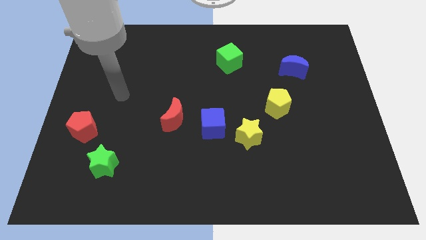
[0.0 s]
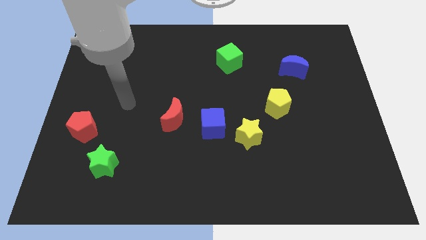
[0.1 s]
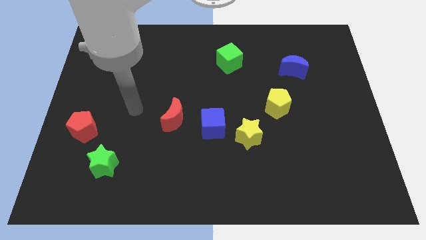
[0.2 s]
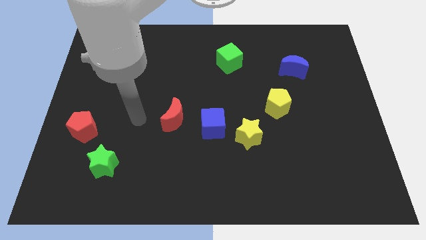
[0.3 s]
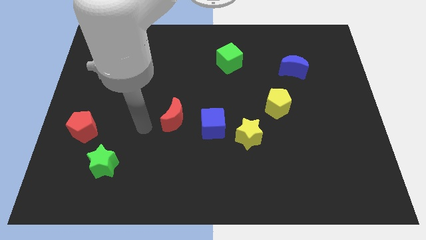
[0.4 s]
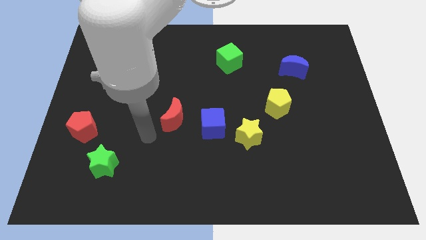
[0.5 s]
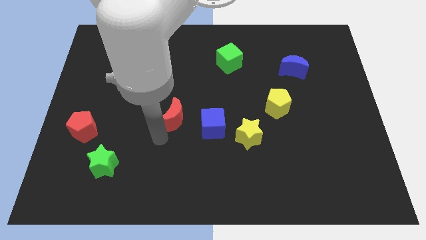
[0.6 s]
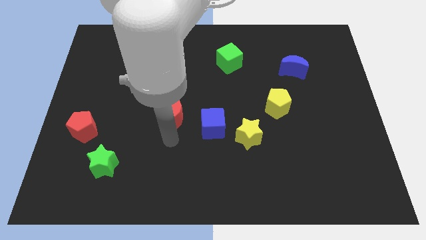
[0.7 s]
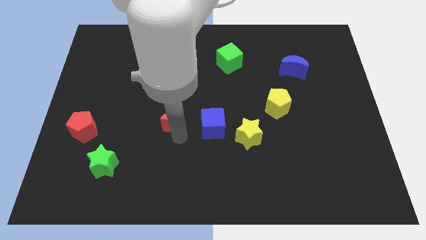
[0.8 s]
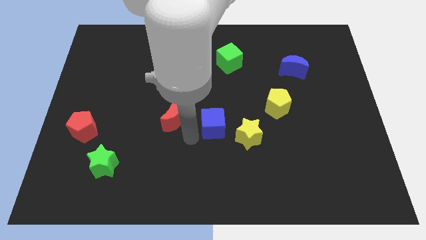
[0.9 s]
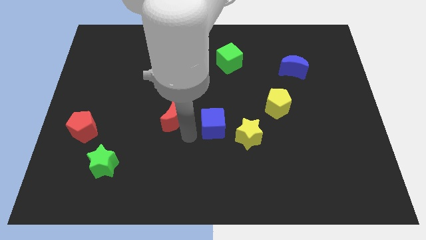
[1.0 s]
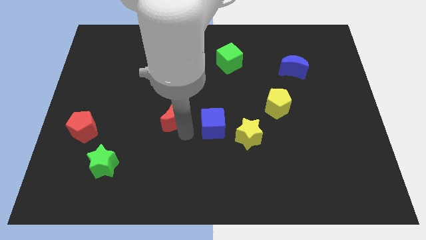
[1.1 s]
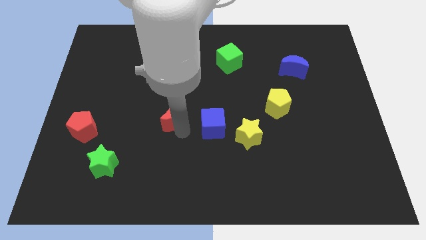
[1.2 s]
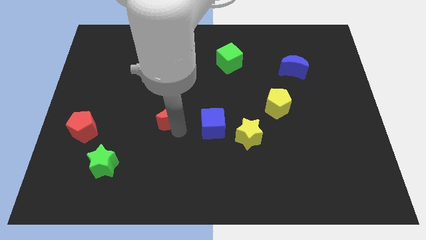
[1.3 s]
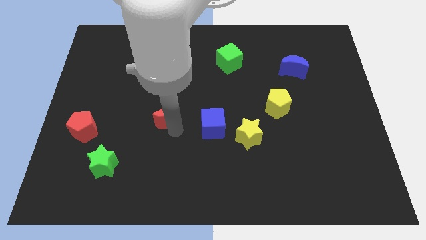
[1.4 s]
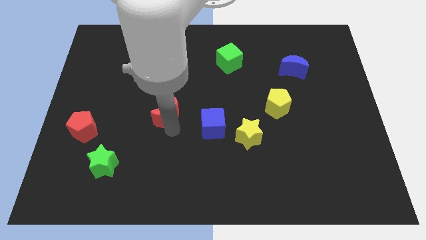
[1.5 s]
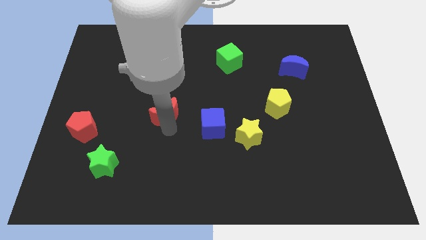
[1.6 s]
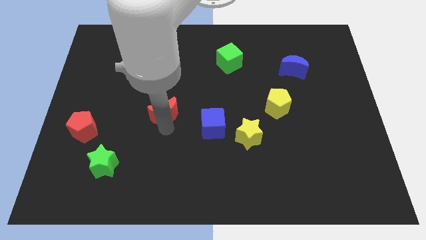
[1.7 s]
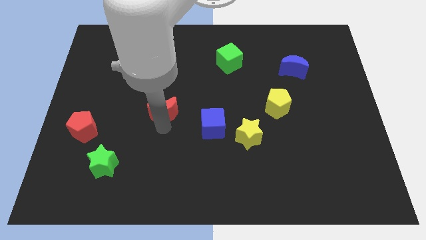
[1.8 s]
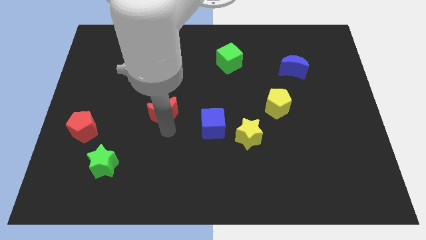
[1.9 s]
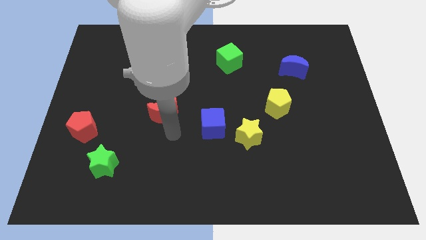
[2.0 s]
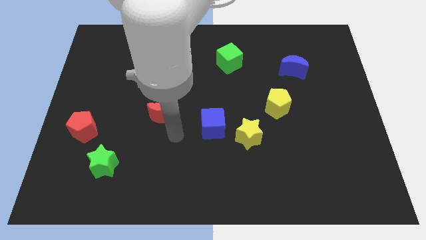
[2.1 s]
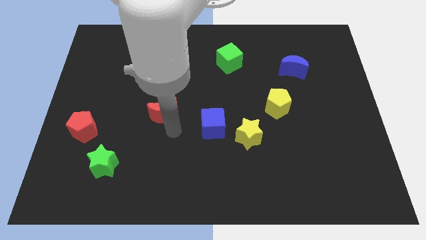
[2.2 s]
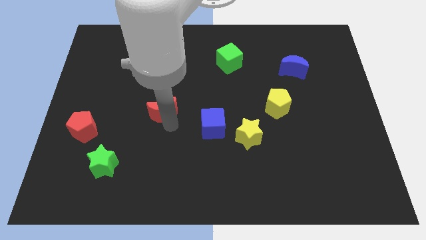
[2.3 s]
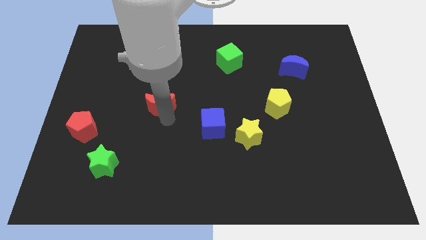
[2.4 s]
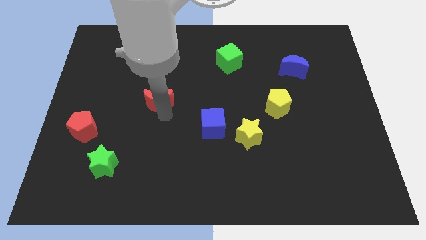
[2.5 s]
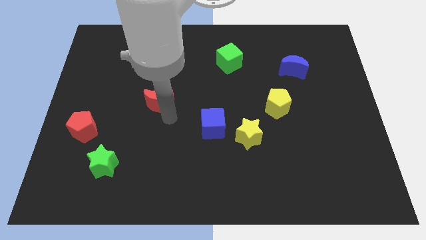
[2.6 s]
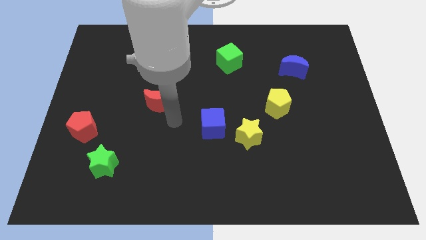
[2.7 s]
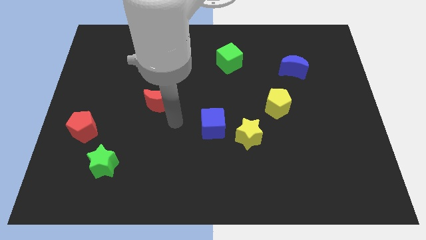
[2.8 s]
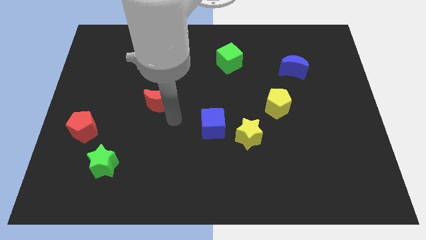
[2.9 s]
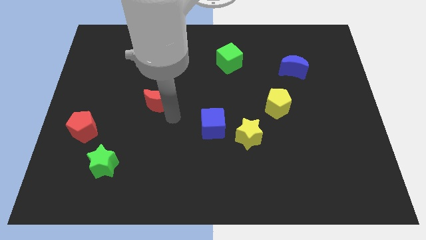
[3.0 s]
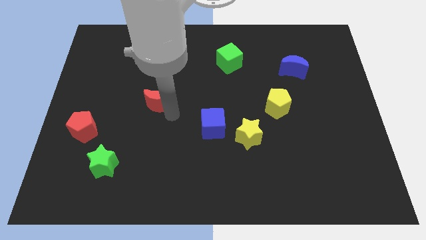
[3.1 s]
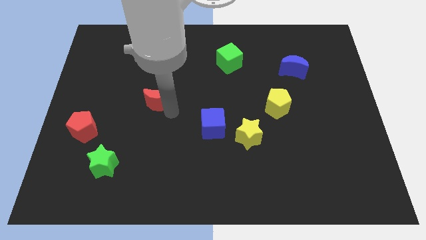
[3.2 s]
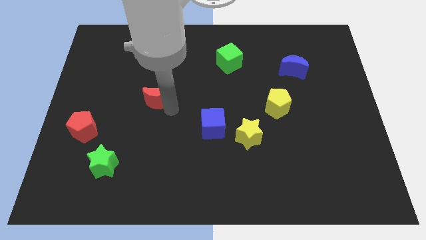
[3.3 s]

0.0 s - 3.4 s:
slightly push the red moon up and to the left diagonally

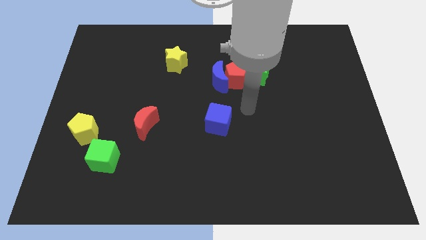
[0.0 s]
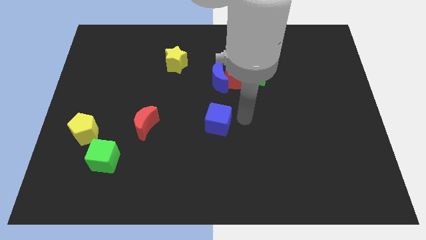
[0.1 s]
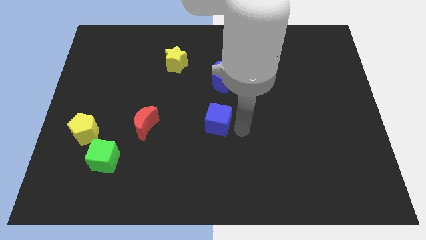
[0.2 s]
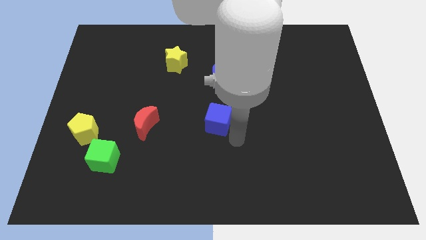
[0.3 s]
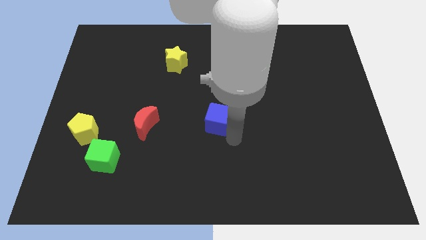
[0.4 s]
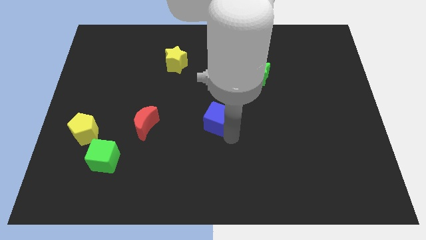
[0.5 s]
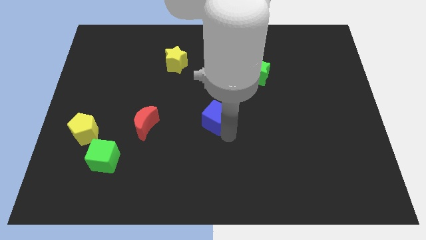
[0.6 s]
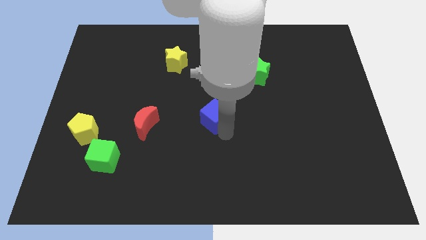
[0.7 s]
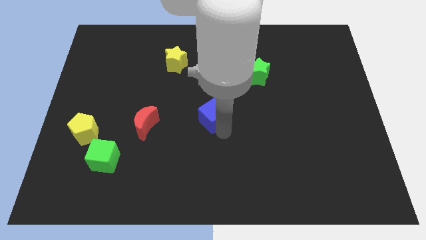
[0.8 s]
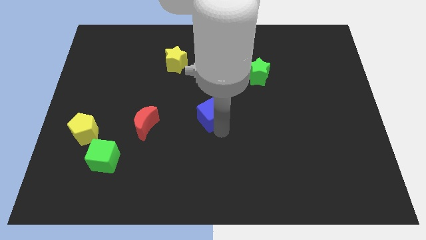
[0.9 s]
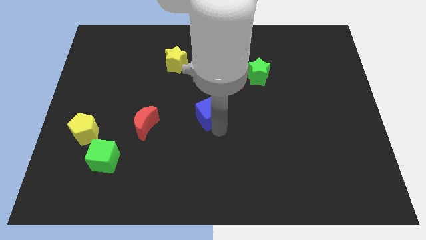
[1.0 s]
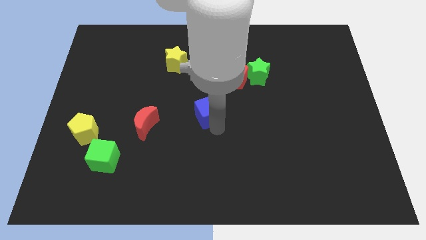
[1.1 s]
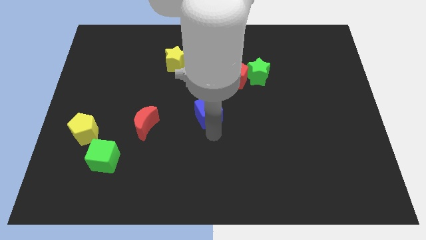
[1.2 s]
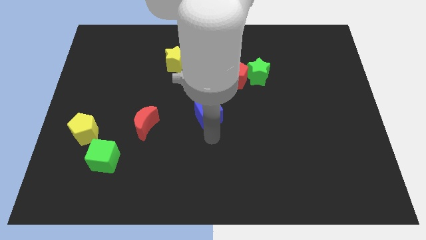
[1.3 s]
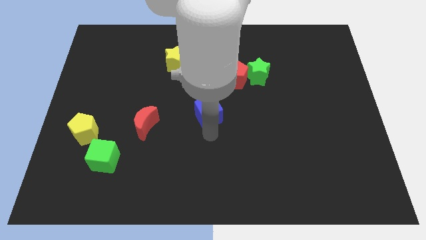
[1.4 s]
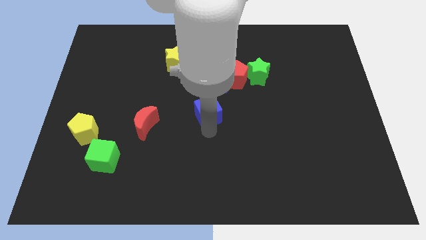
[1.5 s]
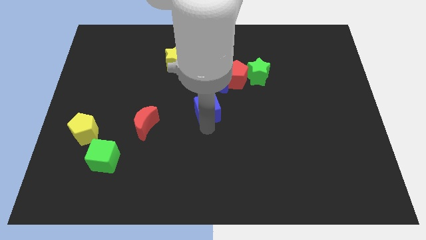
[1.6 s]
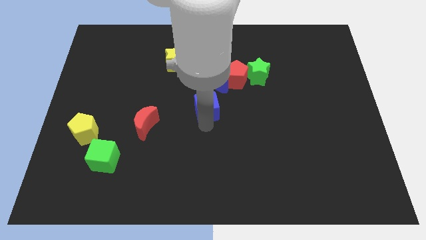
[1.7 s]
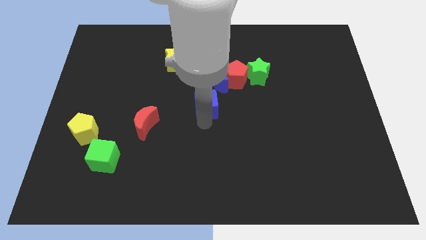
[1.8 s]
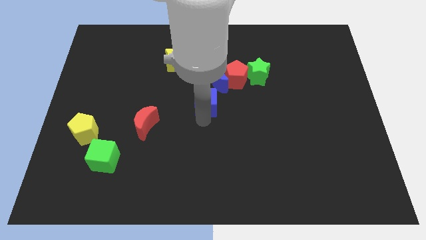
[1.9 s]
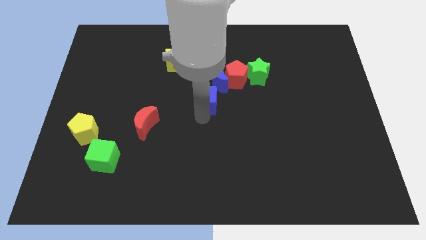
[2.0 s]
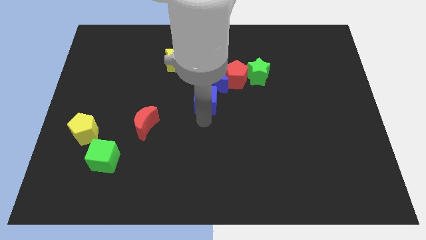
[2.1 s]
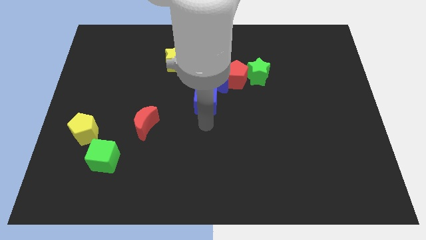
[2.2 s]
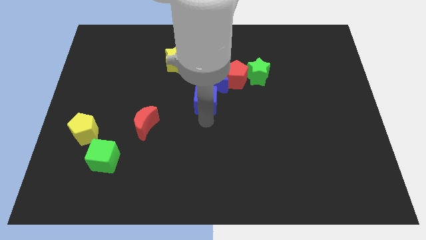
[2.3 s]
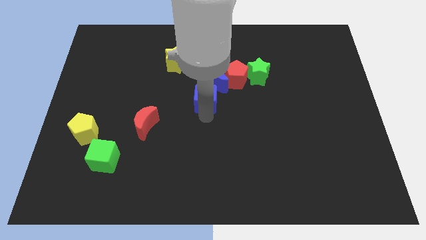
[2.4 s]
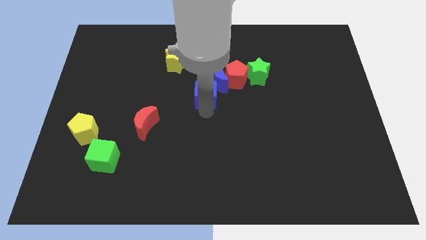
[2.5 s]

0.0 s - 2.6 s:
slide the blue cube somewhat up

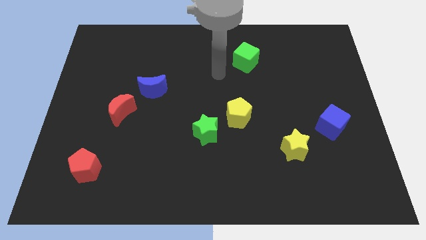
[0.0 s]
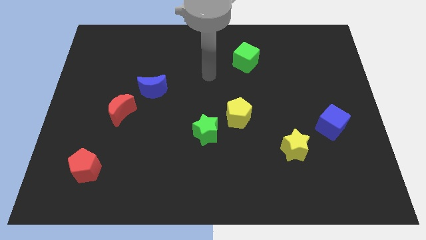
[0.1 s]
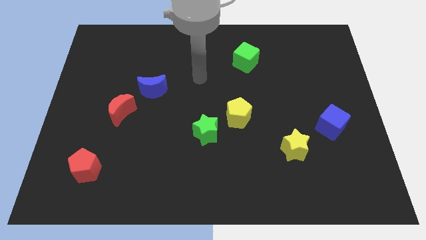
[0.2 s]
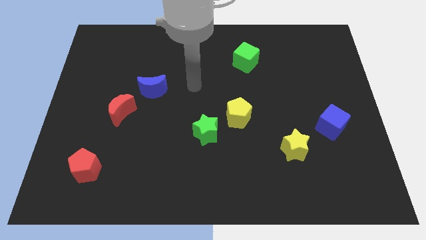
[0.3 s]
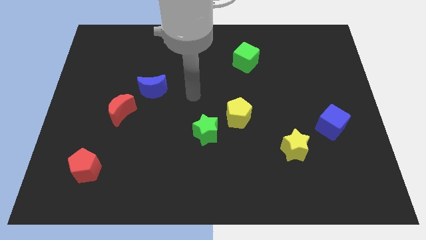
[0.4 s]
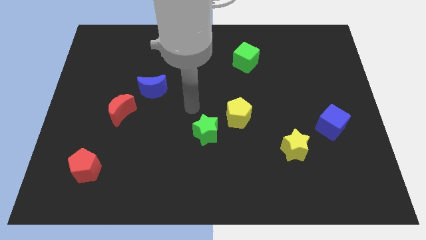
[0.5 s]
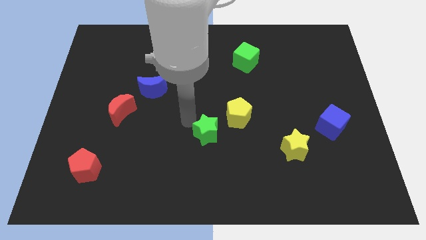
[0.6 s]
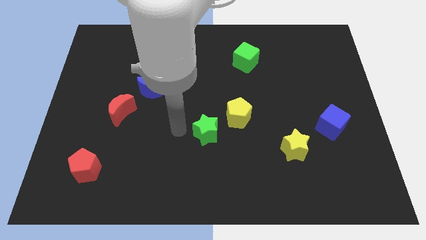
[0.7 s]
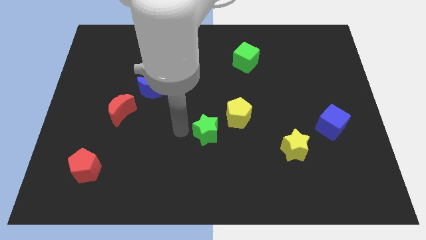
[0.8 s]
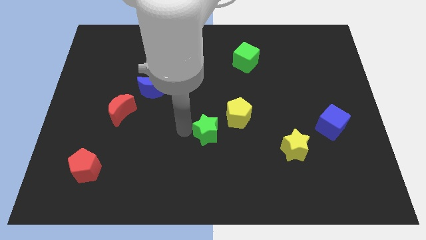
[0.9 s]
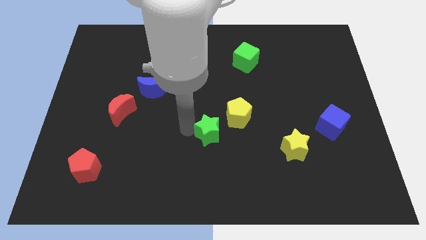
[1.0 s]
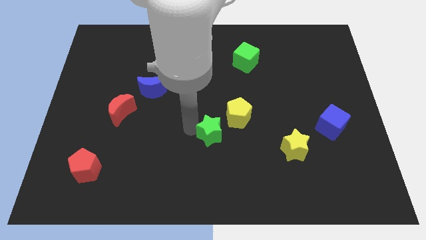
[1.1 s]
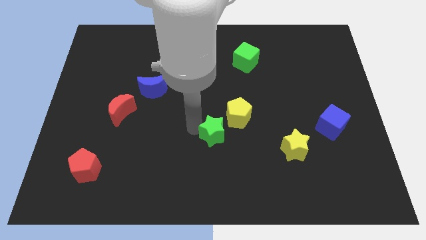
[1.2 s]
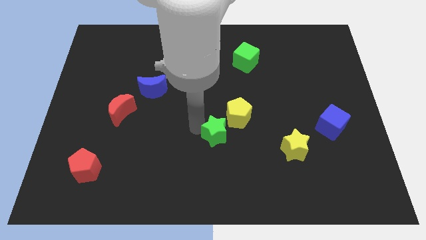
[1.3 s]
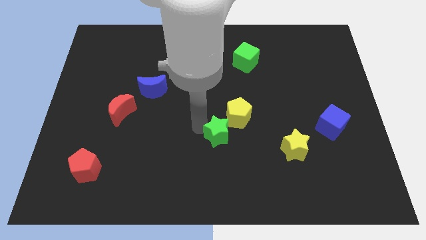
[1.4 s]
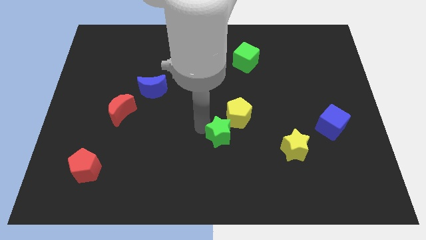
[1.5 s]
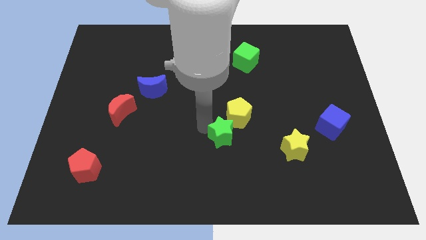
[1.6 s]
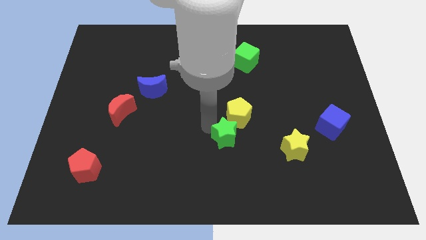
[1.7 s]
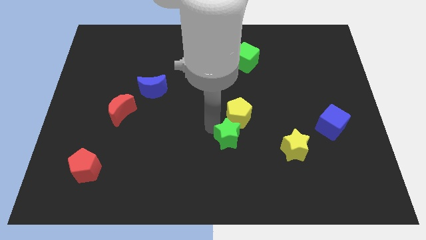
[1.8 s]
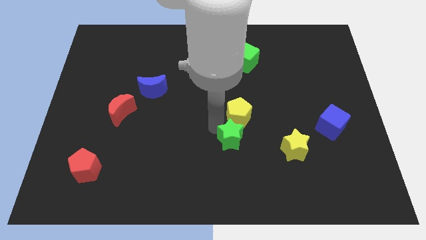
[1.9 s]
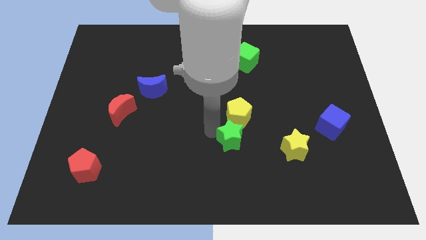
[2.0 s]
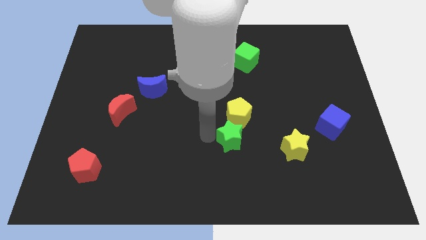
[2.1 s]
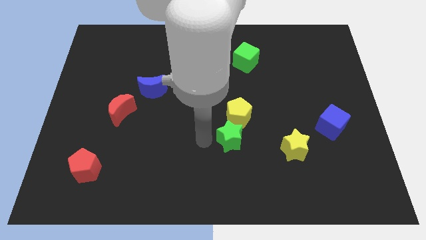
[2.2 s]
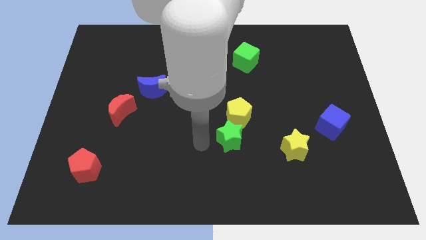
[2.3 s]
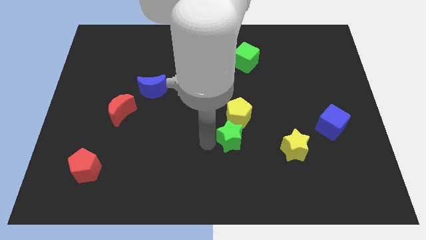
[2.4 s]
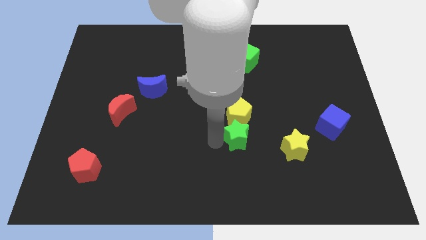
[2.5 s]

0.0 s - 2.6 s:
slightly slide the green star right
